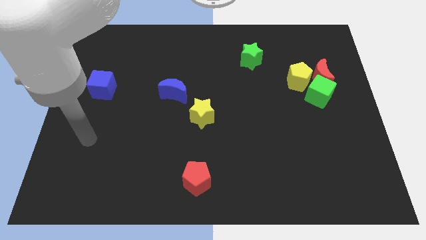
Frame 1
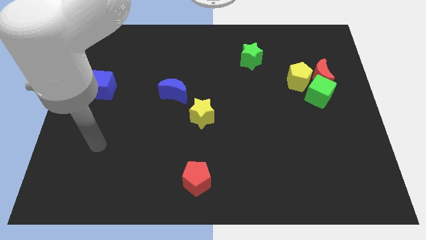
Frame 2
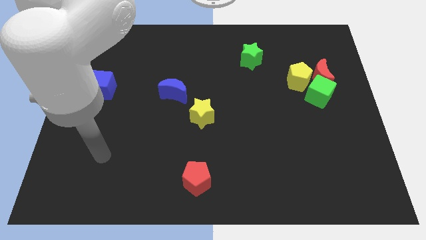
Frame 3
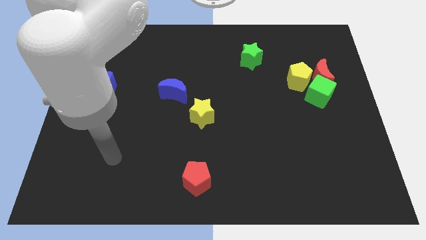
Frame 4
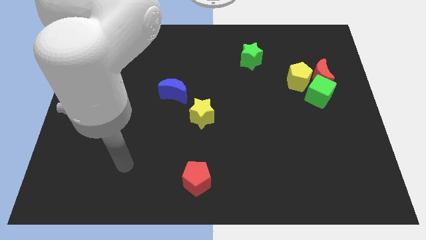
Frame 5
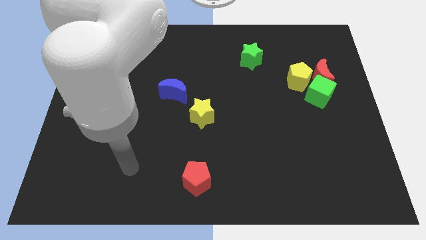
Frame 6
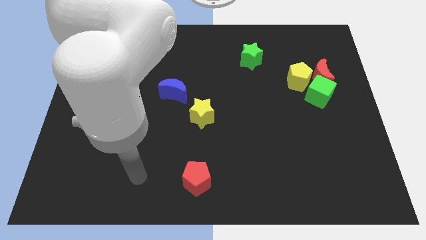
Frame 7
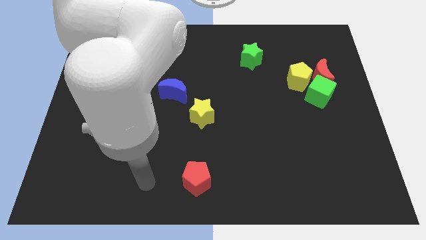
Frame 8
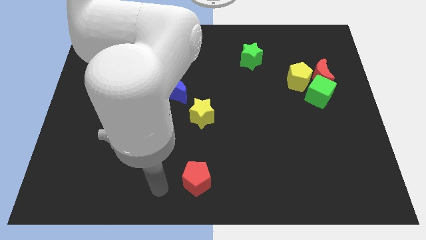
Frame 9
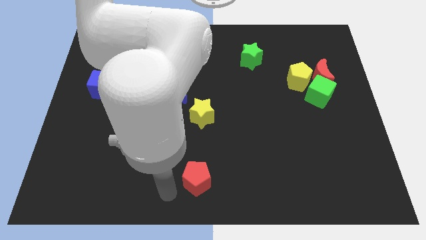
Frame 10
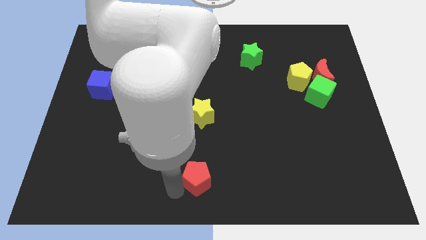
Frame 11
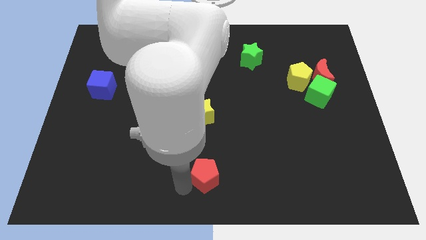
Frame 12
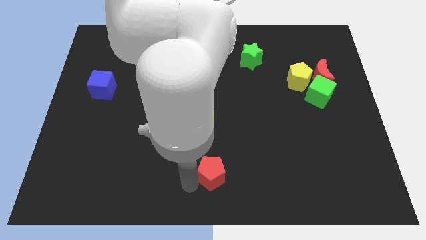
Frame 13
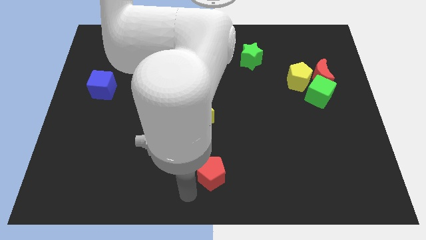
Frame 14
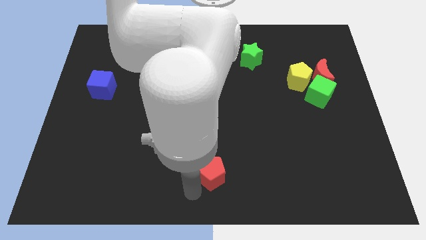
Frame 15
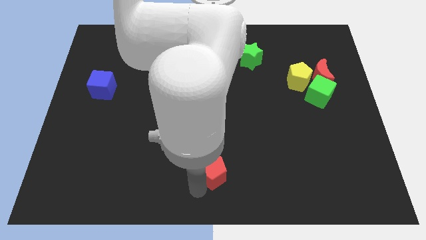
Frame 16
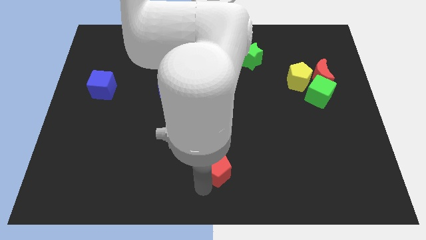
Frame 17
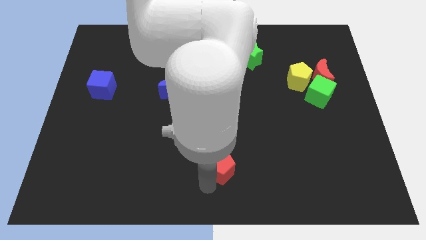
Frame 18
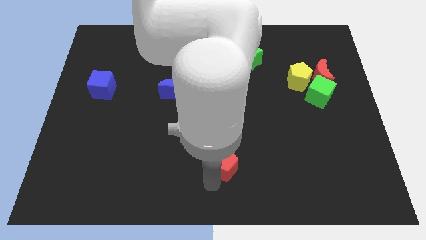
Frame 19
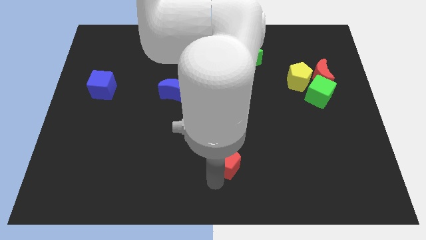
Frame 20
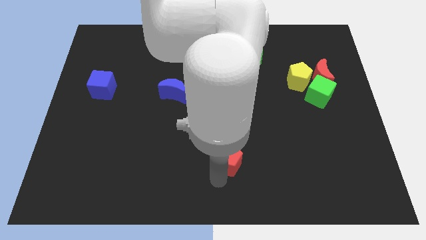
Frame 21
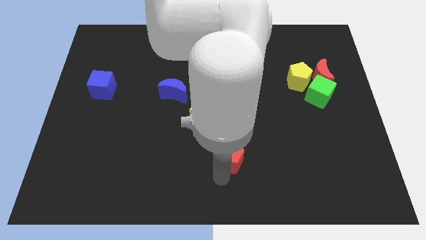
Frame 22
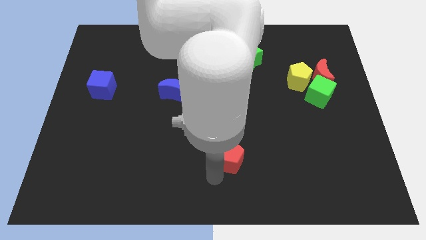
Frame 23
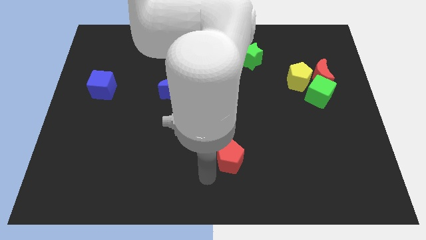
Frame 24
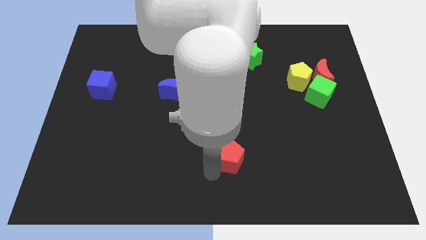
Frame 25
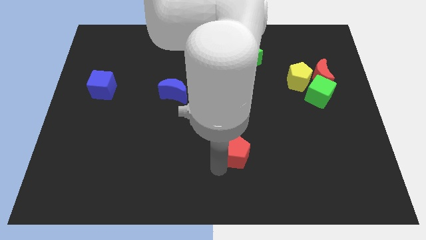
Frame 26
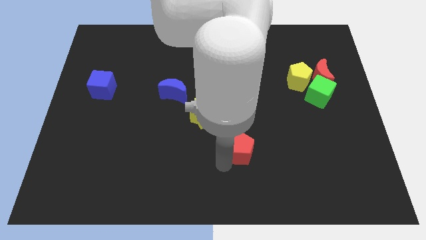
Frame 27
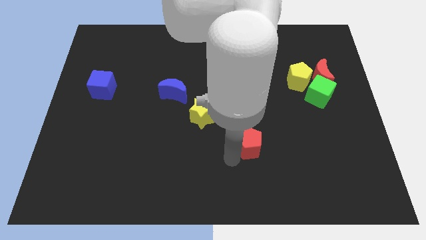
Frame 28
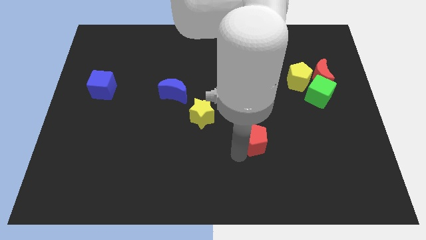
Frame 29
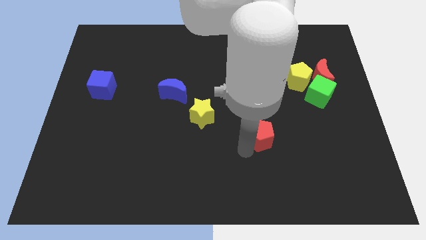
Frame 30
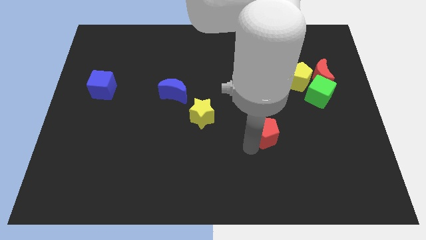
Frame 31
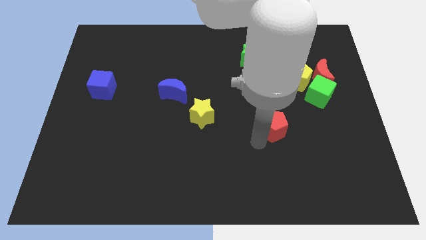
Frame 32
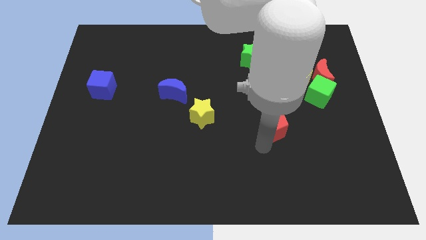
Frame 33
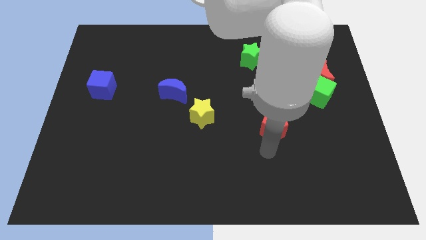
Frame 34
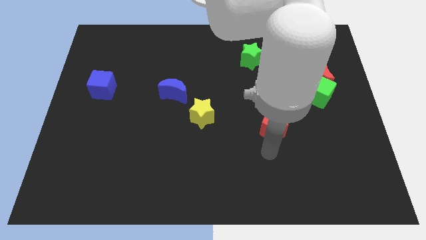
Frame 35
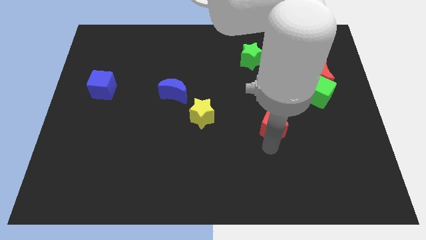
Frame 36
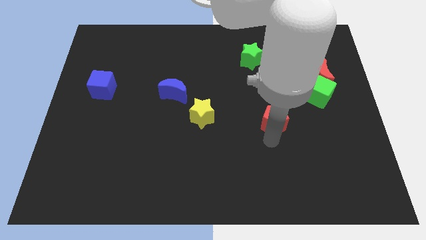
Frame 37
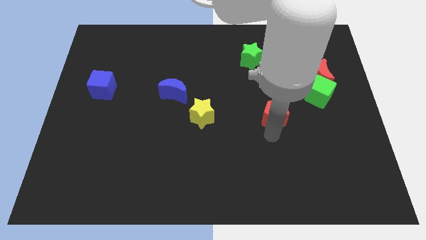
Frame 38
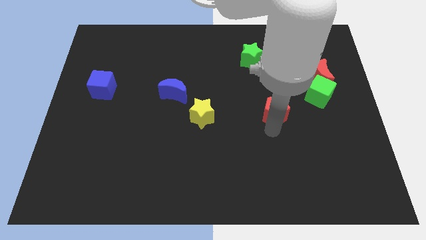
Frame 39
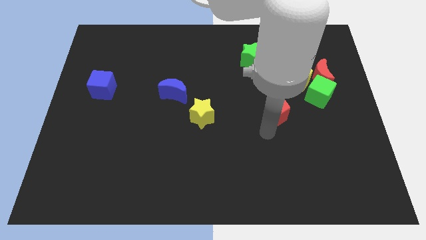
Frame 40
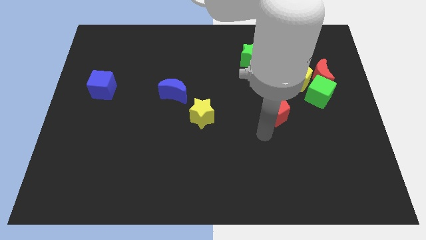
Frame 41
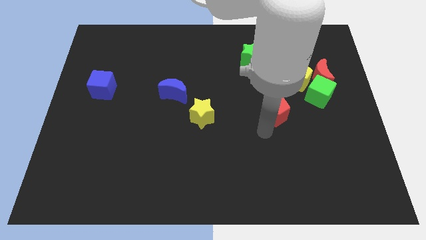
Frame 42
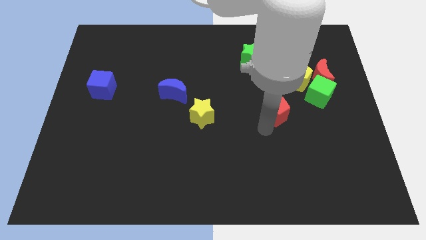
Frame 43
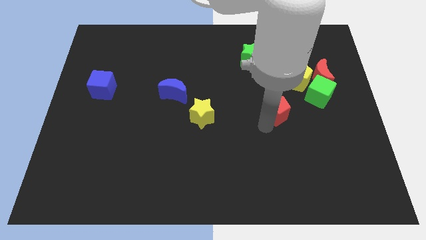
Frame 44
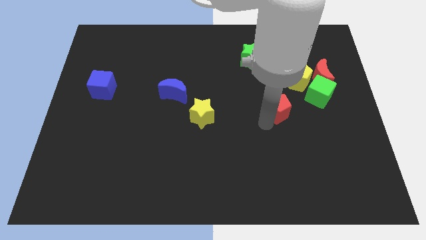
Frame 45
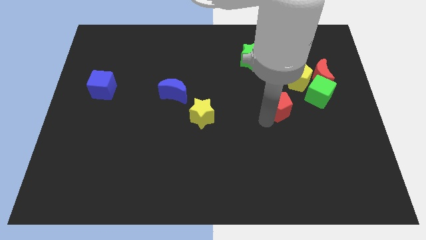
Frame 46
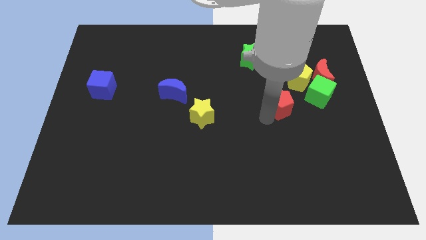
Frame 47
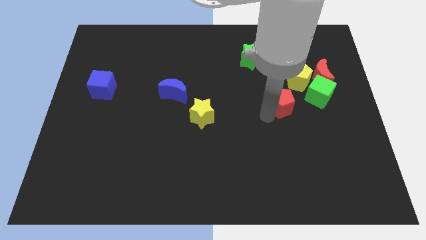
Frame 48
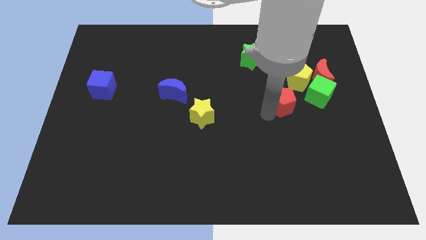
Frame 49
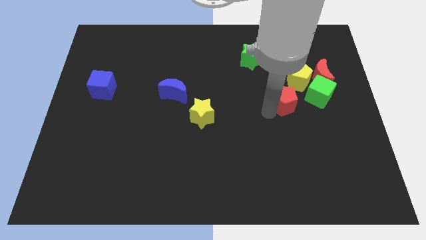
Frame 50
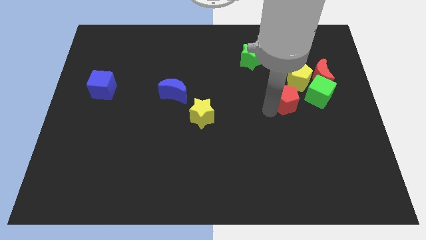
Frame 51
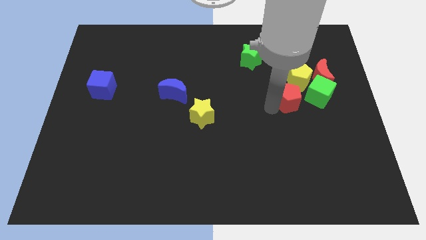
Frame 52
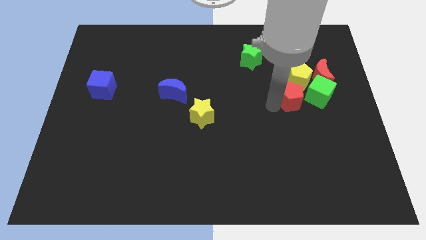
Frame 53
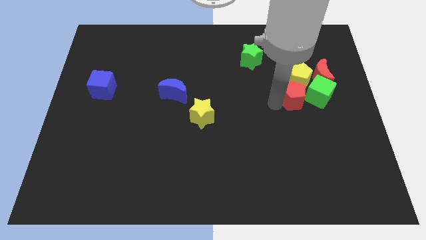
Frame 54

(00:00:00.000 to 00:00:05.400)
put the red pentagon towards the yellow pentagon

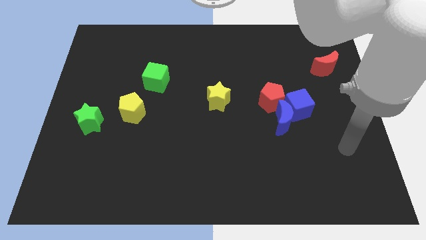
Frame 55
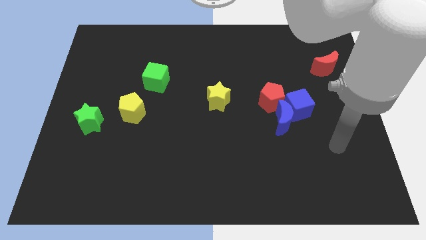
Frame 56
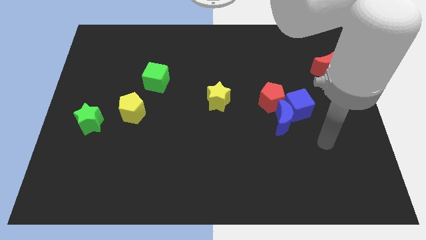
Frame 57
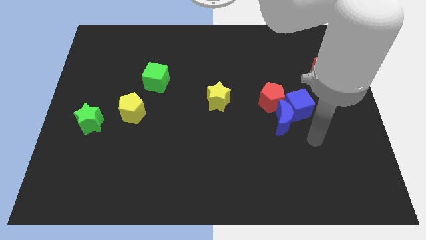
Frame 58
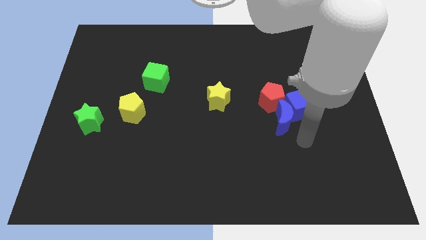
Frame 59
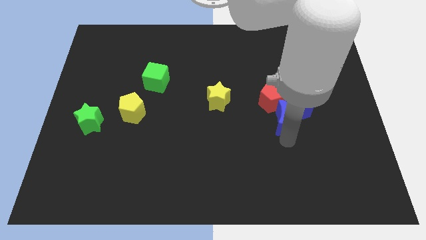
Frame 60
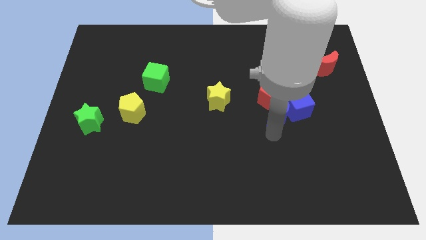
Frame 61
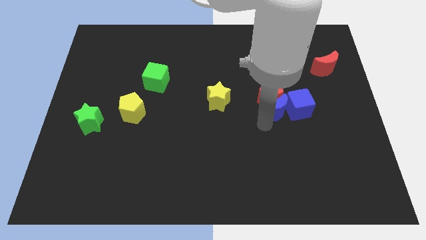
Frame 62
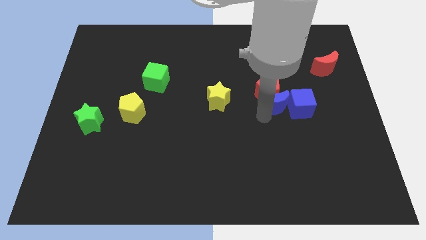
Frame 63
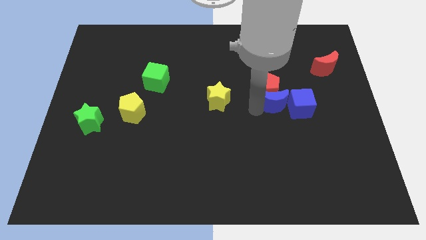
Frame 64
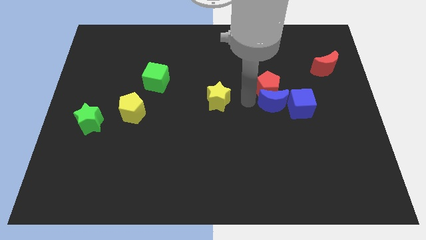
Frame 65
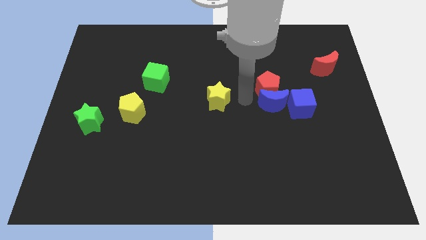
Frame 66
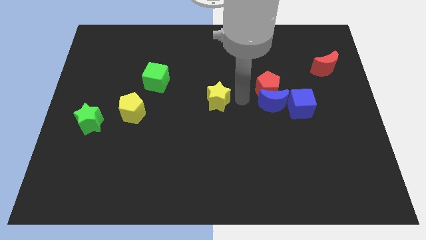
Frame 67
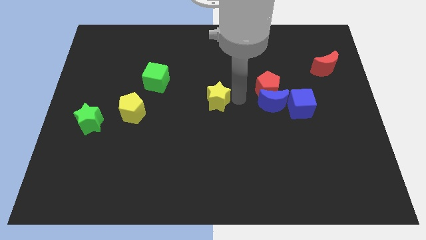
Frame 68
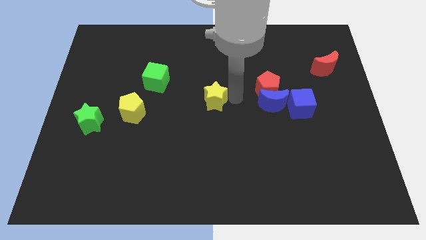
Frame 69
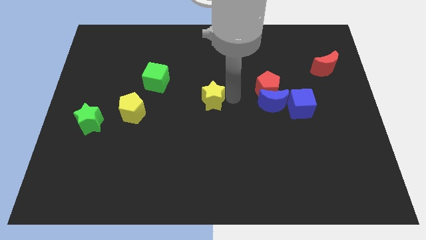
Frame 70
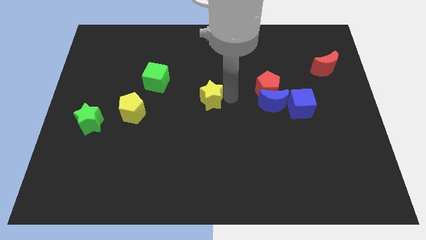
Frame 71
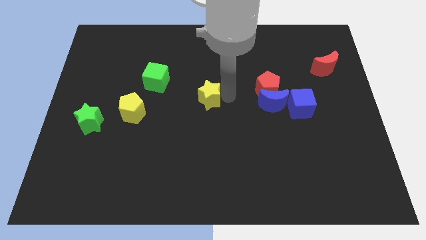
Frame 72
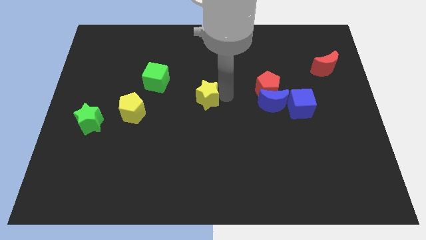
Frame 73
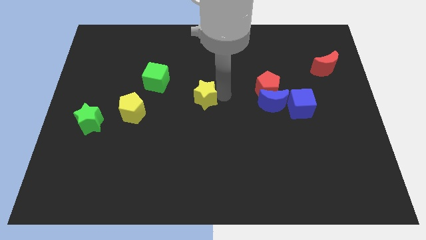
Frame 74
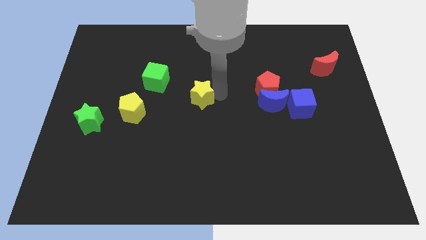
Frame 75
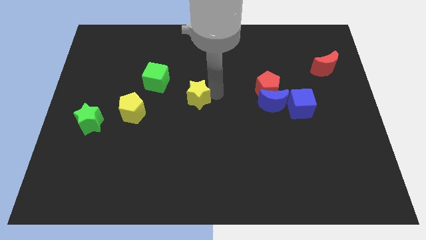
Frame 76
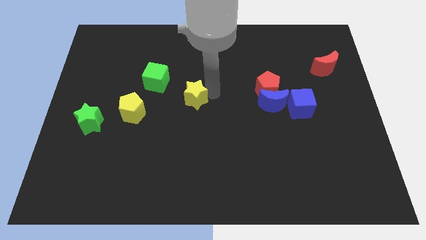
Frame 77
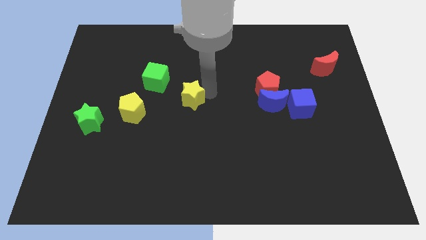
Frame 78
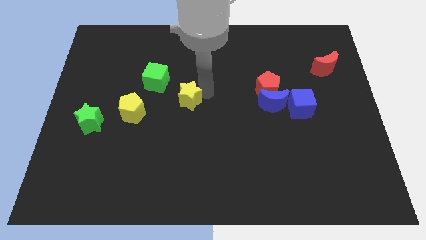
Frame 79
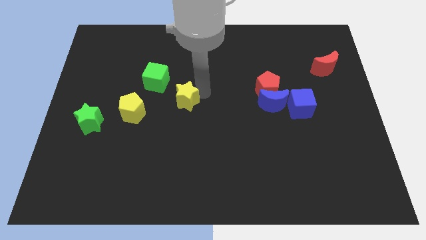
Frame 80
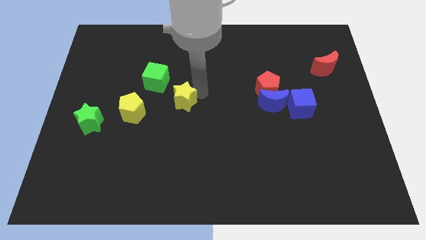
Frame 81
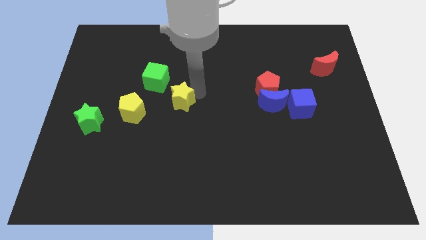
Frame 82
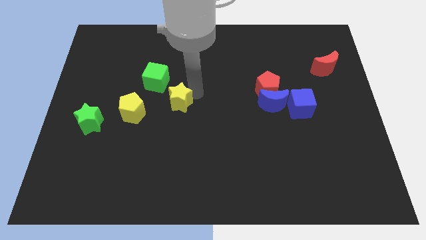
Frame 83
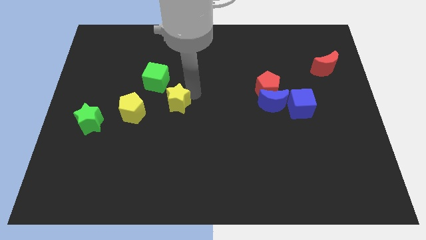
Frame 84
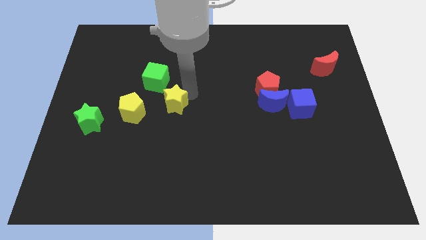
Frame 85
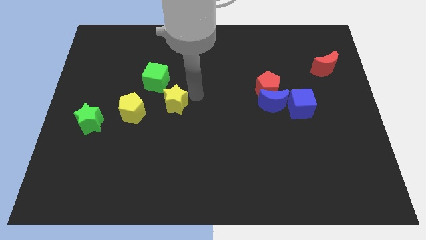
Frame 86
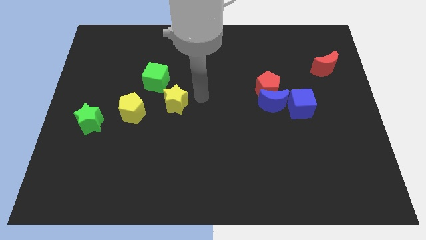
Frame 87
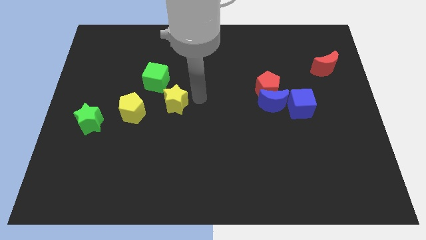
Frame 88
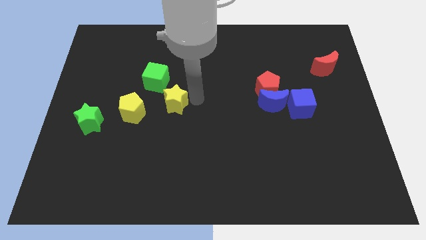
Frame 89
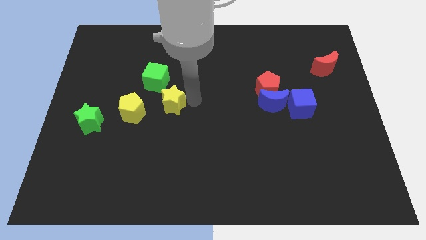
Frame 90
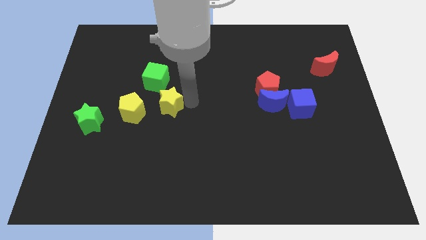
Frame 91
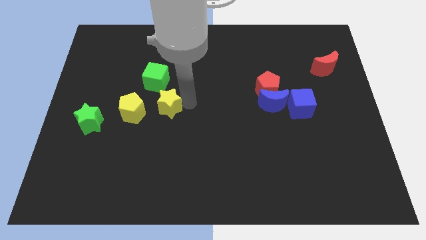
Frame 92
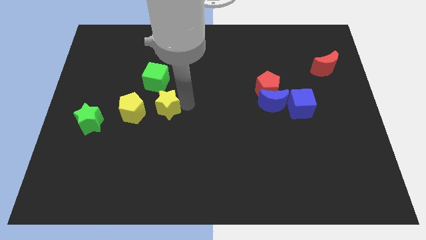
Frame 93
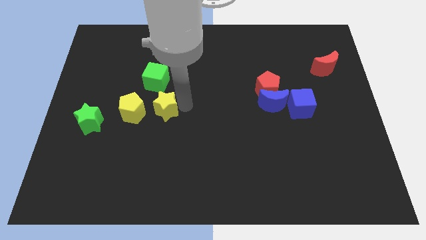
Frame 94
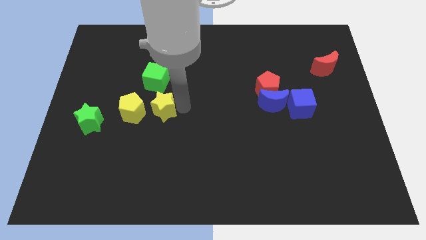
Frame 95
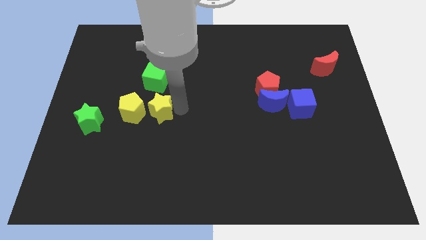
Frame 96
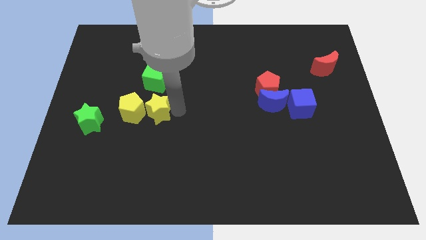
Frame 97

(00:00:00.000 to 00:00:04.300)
push the yellow star next to the yellow pentagon
